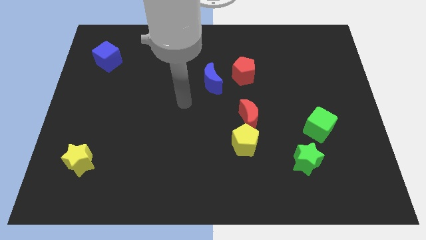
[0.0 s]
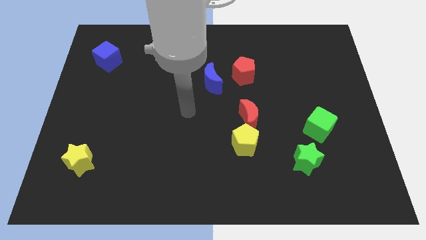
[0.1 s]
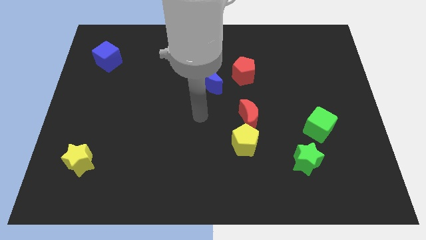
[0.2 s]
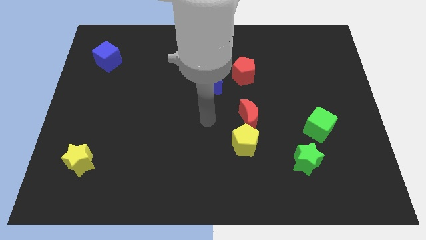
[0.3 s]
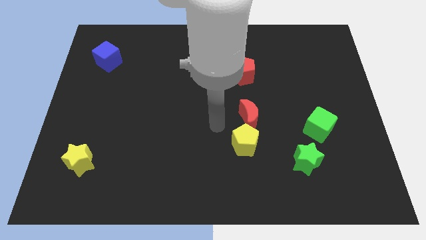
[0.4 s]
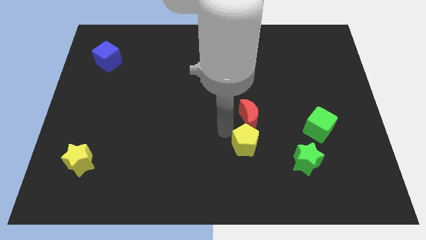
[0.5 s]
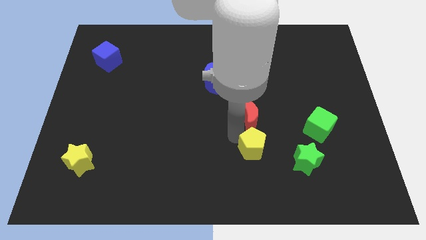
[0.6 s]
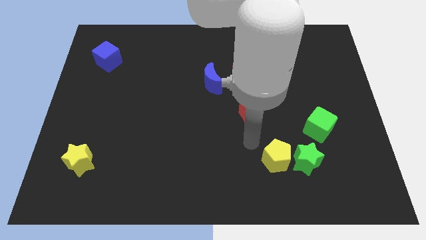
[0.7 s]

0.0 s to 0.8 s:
move the red moon away from the yellow pentagon

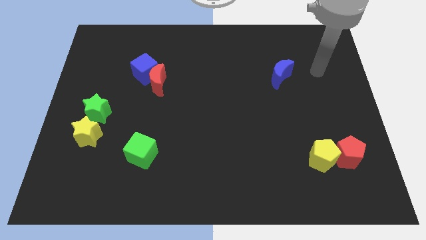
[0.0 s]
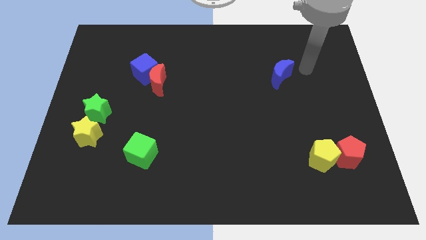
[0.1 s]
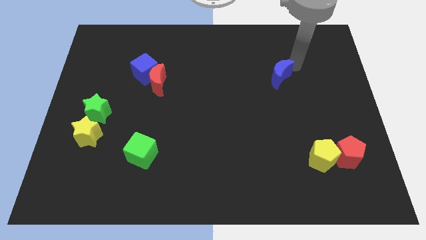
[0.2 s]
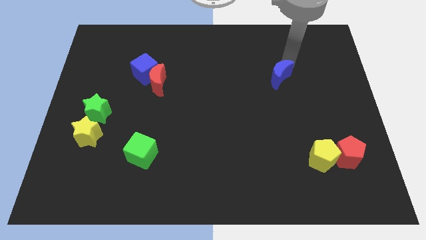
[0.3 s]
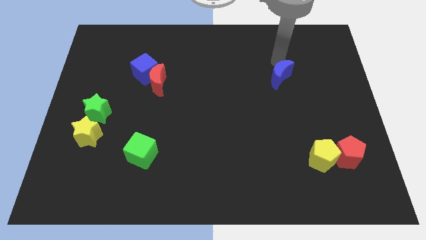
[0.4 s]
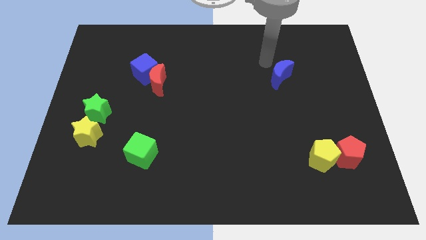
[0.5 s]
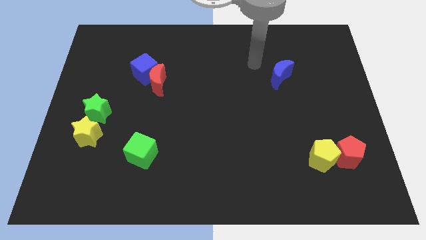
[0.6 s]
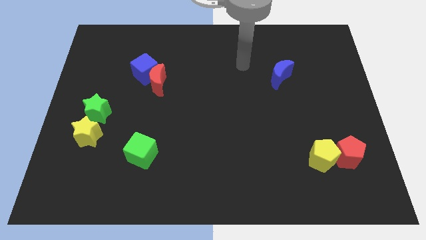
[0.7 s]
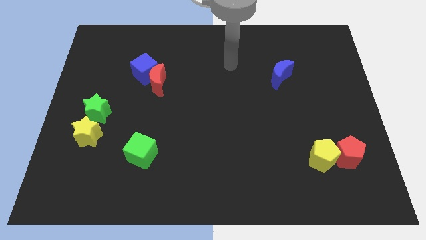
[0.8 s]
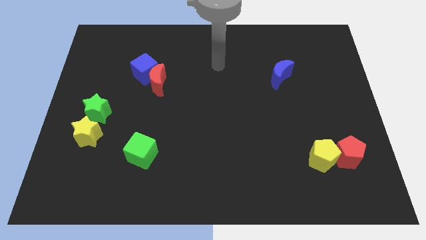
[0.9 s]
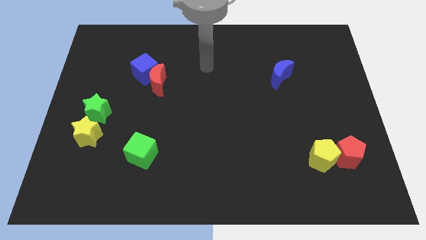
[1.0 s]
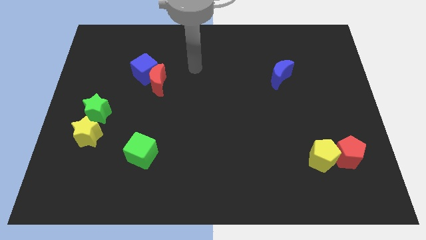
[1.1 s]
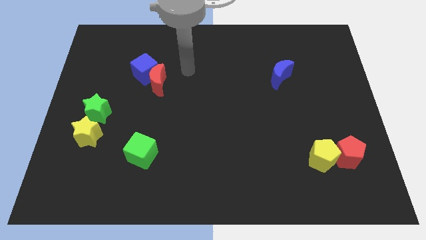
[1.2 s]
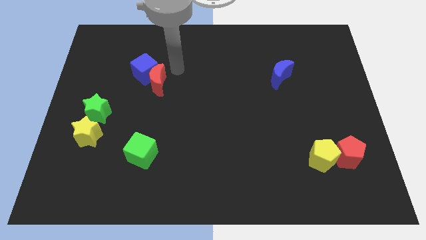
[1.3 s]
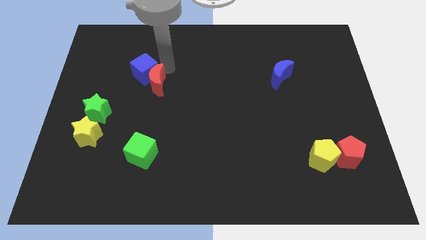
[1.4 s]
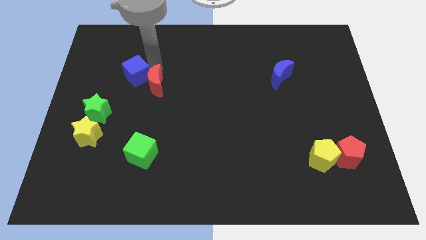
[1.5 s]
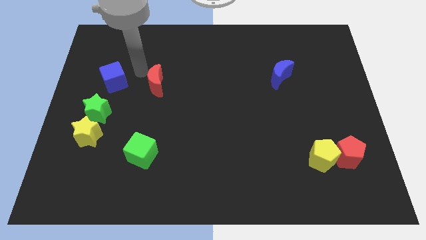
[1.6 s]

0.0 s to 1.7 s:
move the red moon away from the blue cube

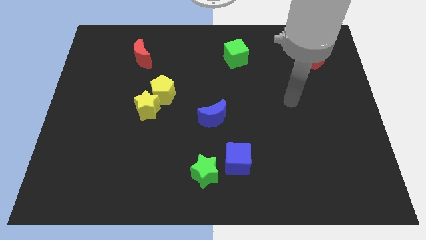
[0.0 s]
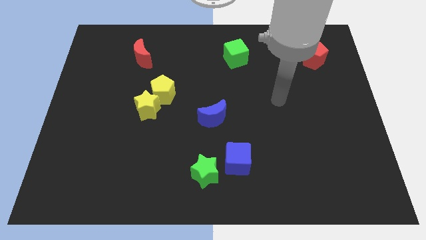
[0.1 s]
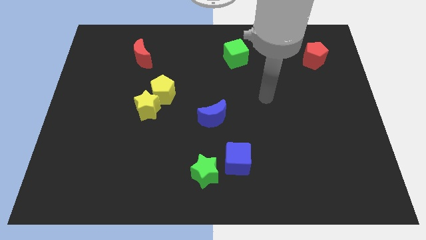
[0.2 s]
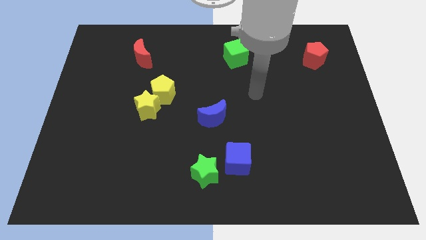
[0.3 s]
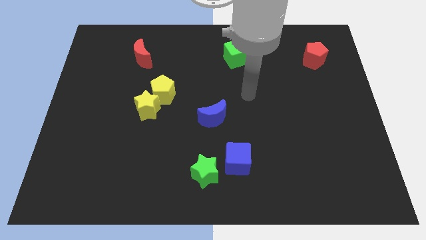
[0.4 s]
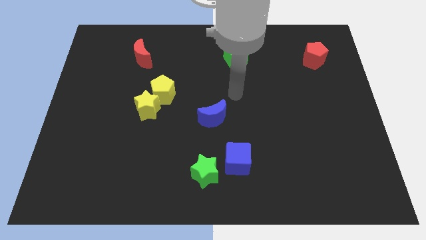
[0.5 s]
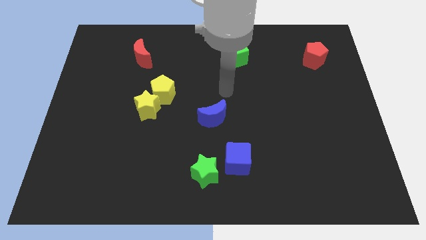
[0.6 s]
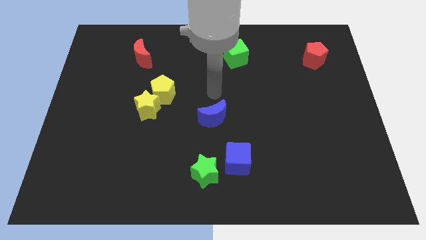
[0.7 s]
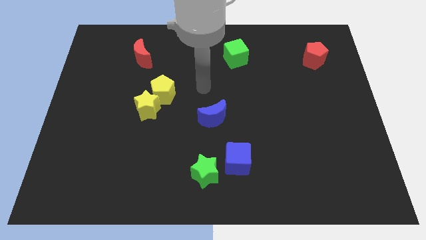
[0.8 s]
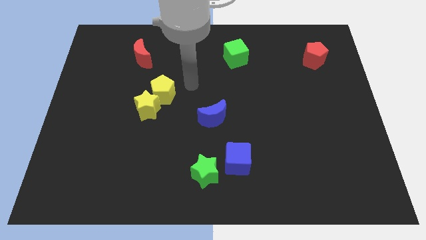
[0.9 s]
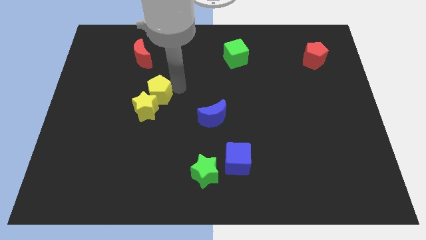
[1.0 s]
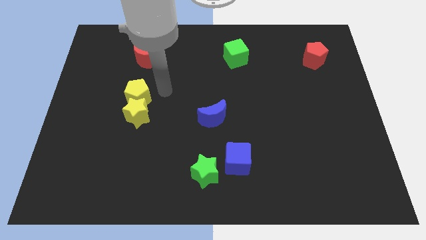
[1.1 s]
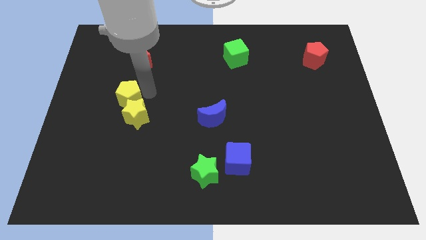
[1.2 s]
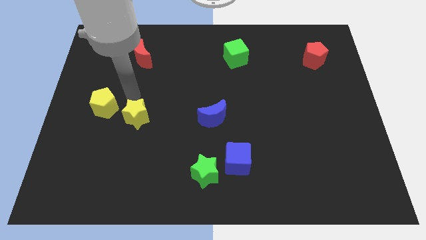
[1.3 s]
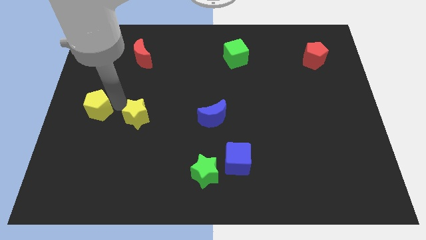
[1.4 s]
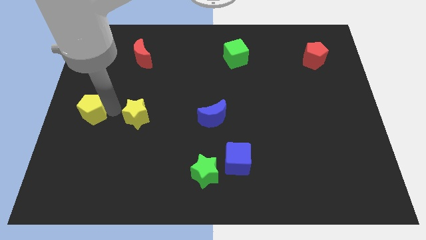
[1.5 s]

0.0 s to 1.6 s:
move the yellow star away from the yellow pentagon

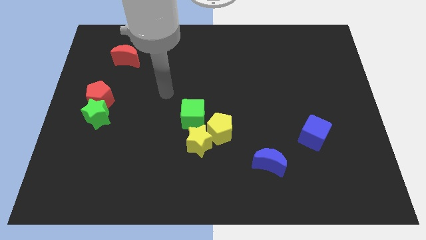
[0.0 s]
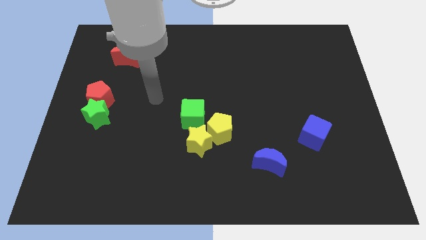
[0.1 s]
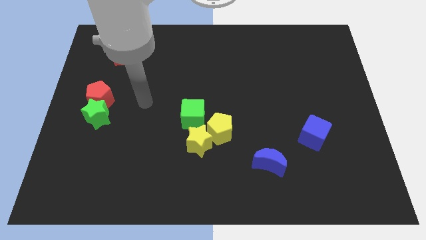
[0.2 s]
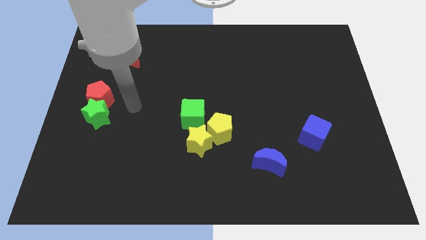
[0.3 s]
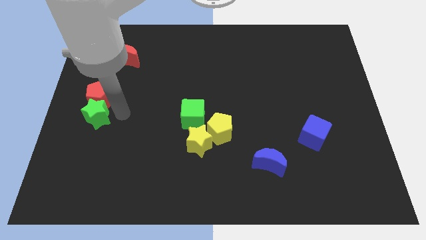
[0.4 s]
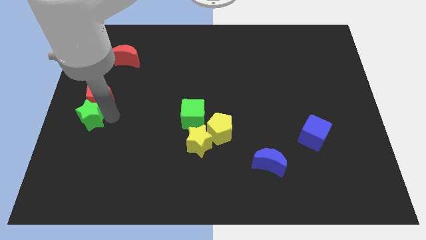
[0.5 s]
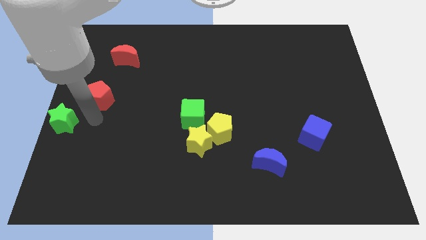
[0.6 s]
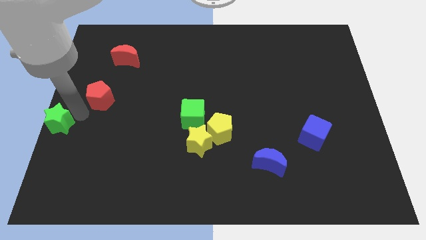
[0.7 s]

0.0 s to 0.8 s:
pull the red pentagon apart from the green star

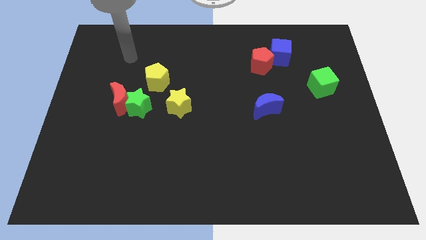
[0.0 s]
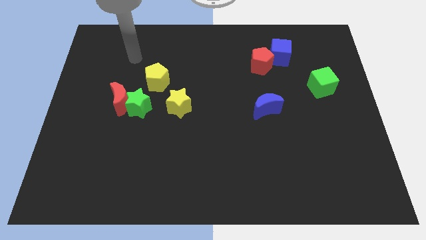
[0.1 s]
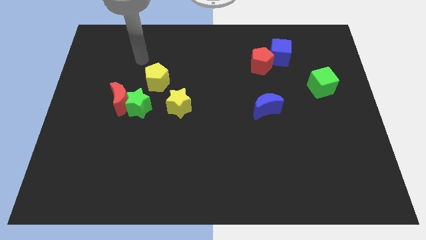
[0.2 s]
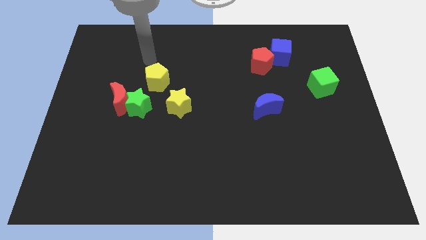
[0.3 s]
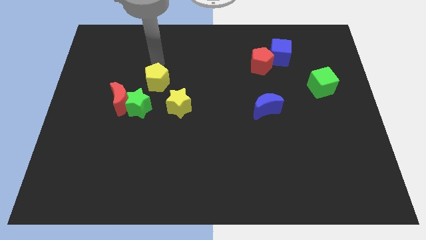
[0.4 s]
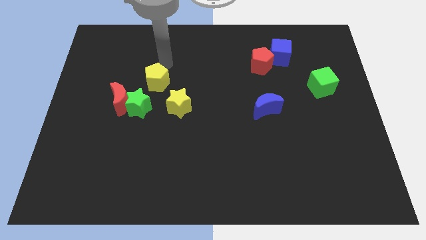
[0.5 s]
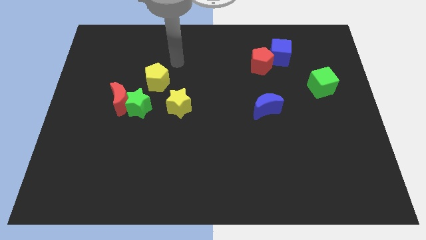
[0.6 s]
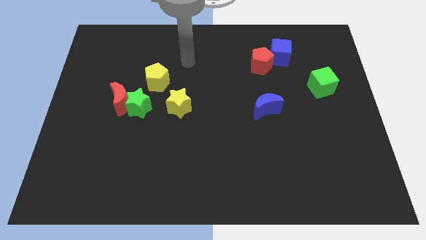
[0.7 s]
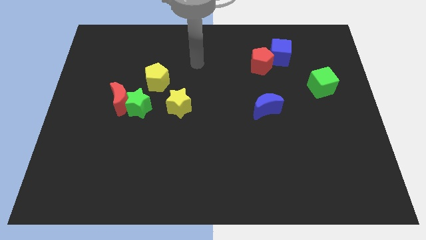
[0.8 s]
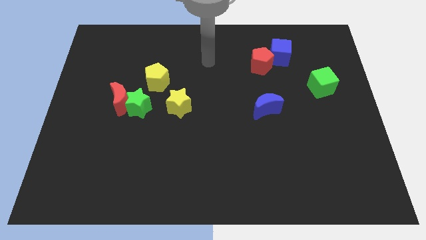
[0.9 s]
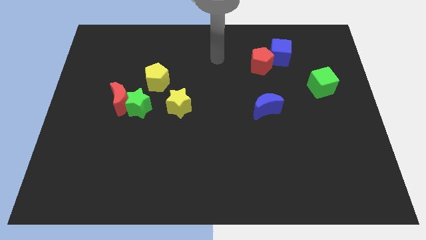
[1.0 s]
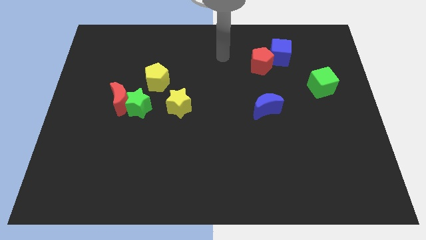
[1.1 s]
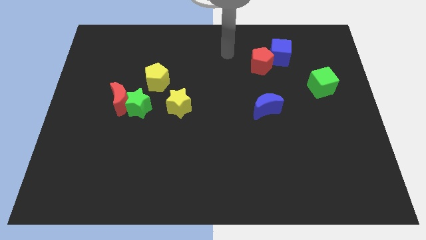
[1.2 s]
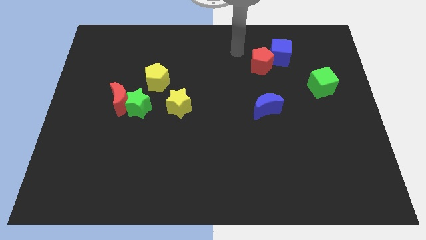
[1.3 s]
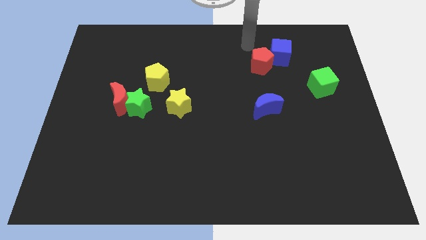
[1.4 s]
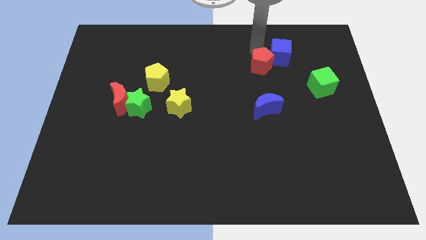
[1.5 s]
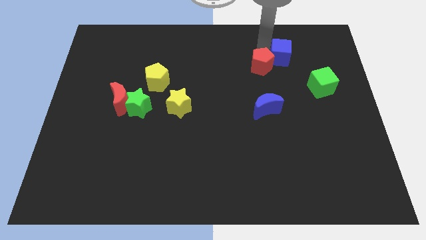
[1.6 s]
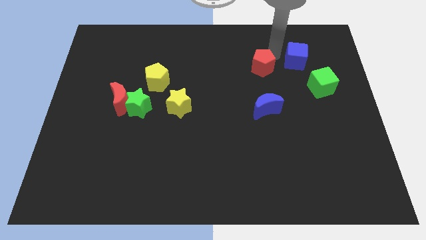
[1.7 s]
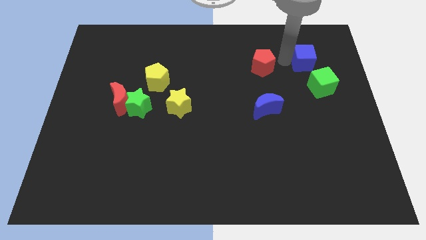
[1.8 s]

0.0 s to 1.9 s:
separate the red pentagon from the blue cube

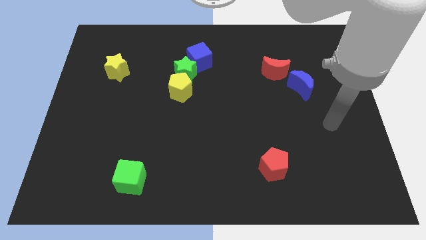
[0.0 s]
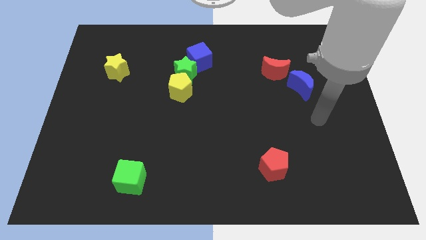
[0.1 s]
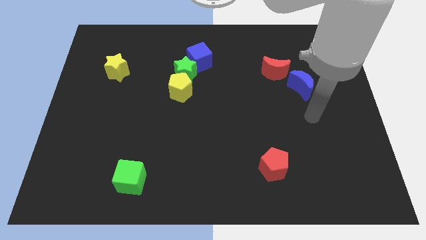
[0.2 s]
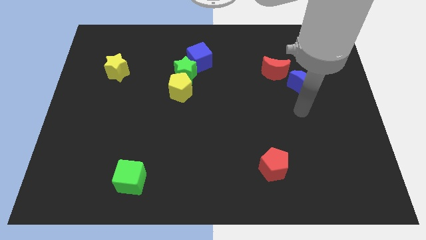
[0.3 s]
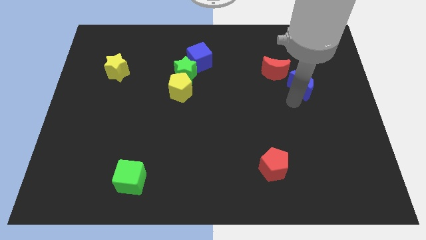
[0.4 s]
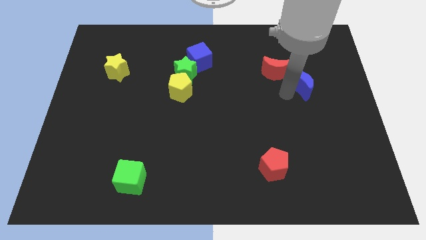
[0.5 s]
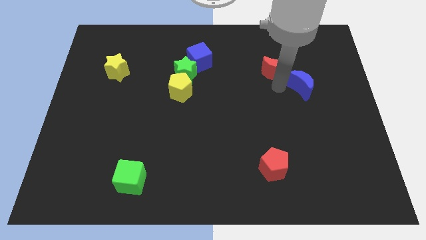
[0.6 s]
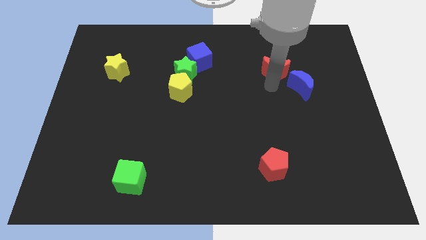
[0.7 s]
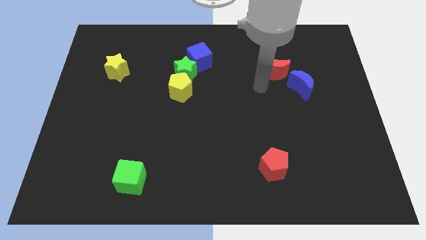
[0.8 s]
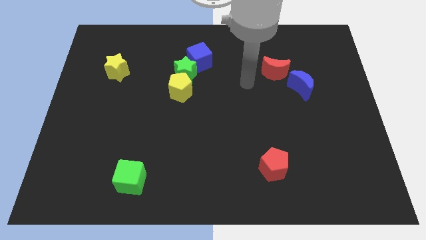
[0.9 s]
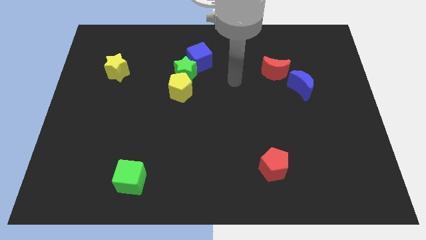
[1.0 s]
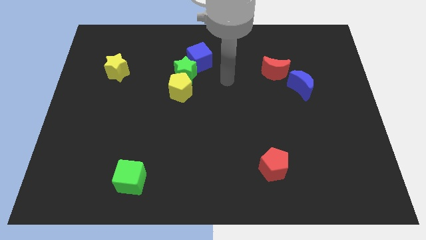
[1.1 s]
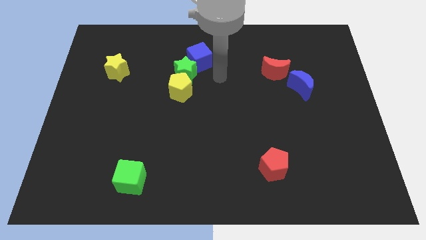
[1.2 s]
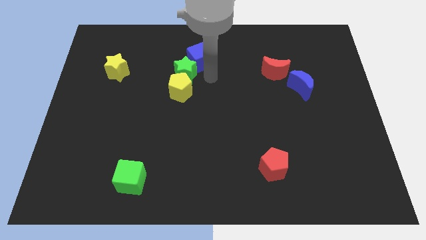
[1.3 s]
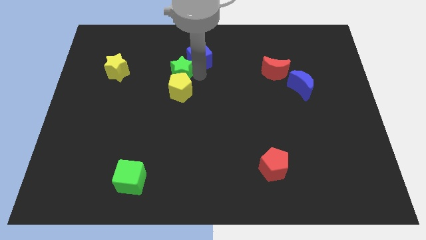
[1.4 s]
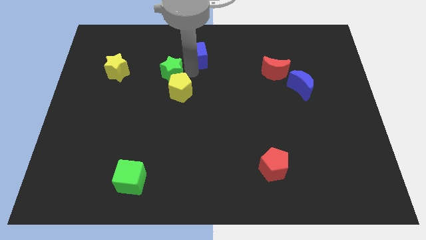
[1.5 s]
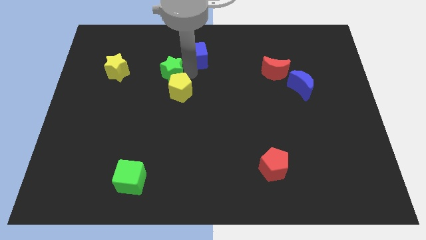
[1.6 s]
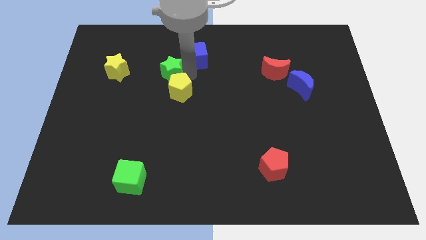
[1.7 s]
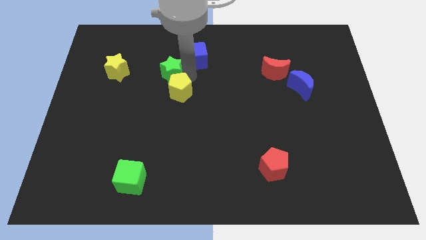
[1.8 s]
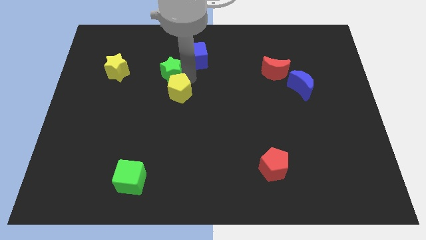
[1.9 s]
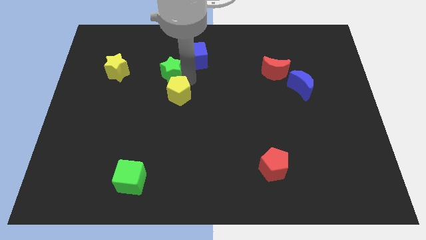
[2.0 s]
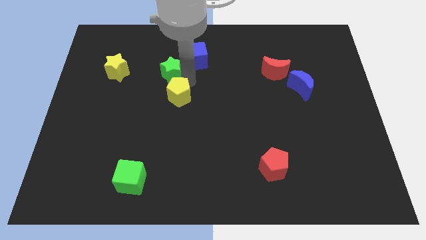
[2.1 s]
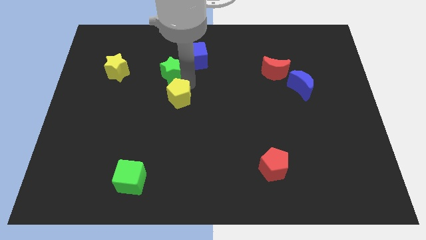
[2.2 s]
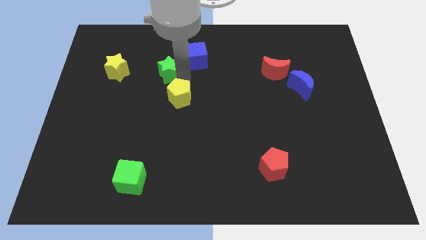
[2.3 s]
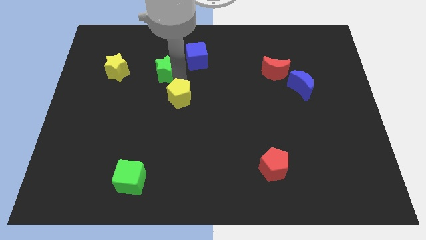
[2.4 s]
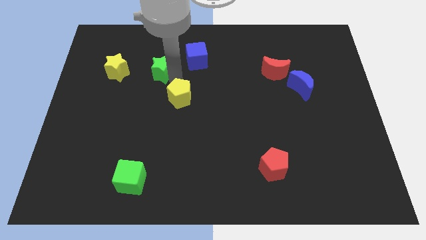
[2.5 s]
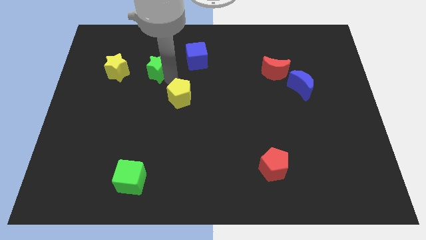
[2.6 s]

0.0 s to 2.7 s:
move the yellow pentagon away from the green star
